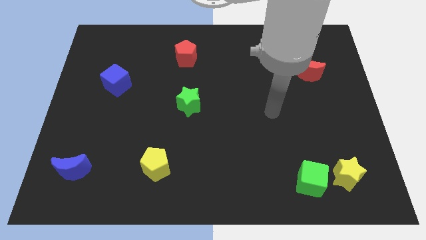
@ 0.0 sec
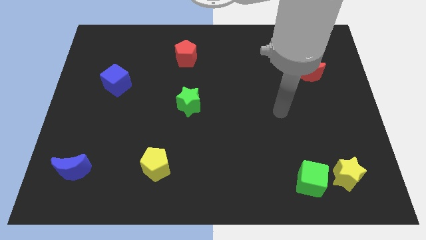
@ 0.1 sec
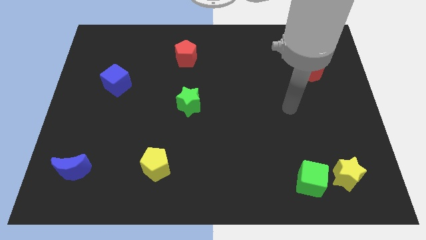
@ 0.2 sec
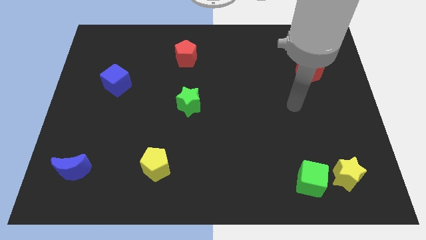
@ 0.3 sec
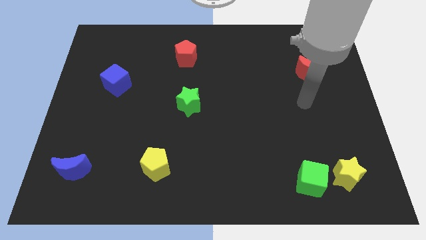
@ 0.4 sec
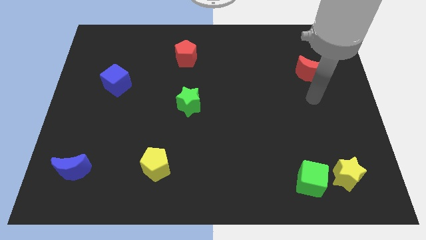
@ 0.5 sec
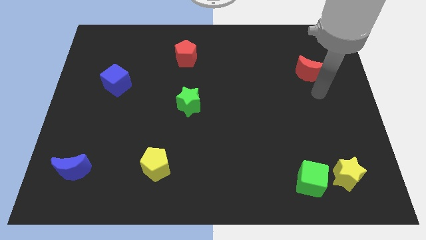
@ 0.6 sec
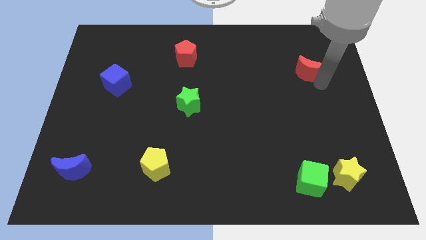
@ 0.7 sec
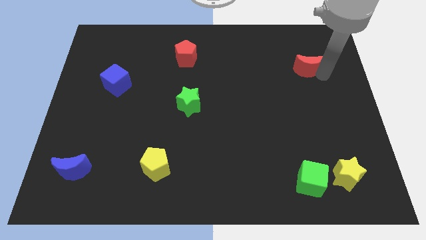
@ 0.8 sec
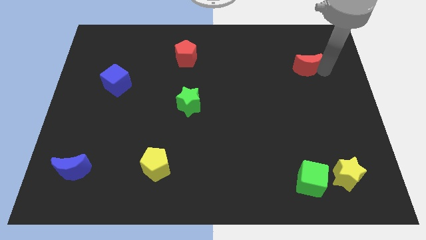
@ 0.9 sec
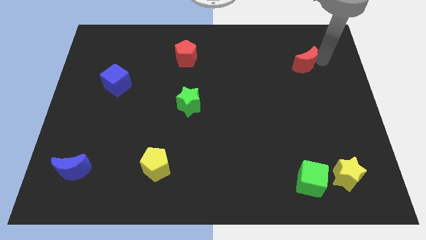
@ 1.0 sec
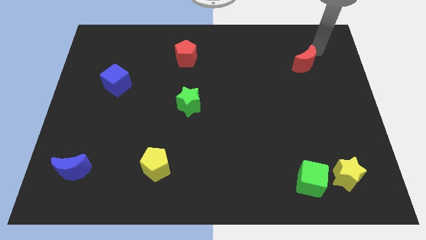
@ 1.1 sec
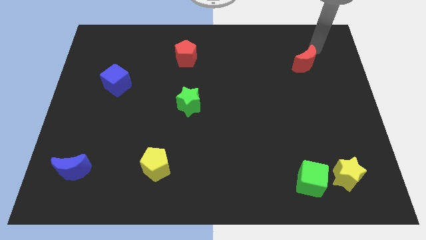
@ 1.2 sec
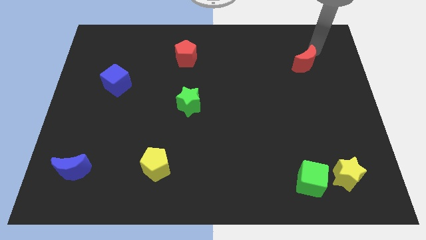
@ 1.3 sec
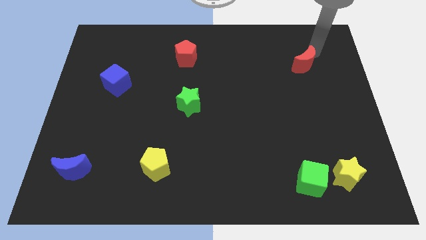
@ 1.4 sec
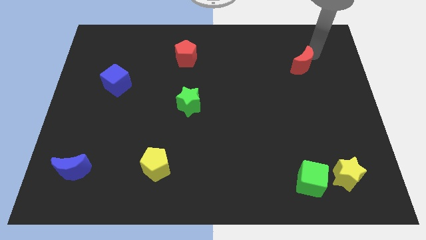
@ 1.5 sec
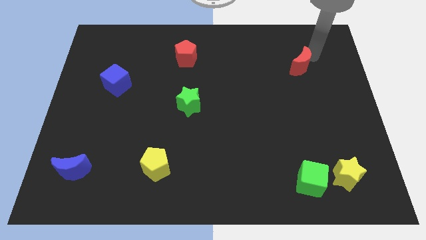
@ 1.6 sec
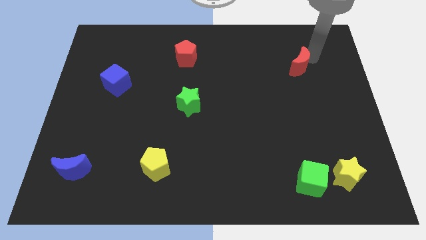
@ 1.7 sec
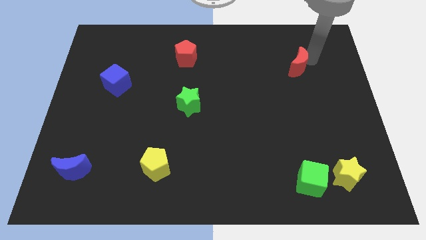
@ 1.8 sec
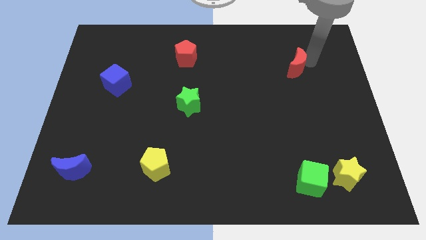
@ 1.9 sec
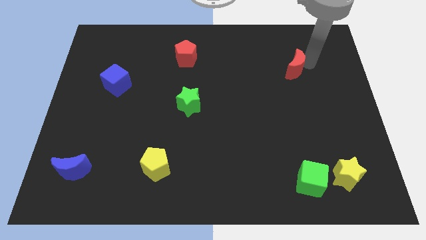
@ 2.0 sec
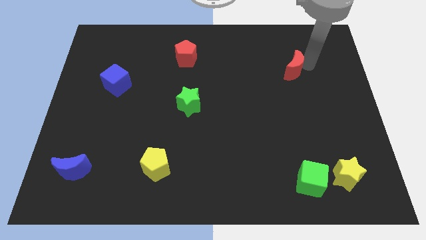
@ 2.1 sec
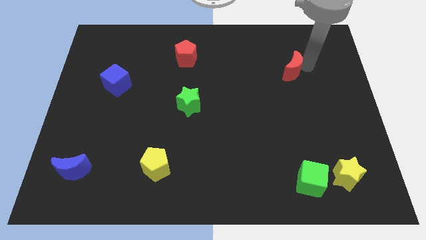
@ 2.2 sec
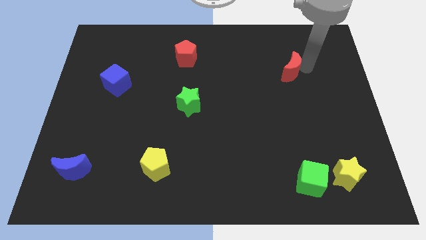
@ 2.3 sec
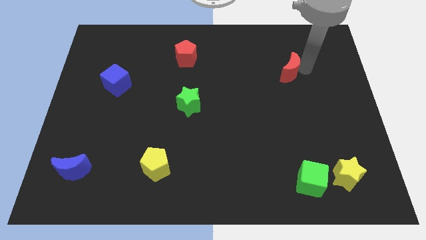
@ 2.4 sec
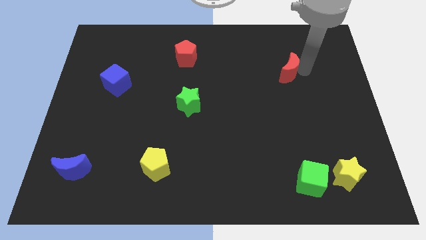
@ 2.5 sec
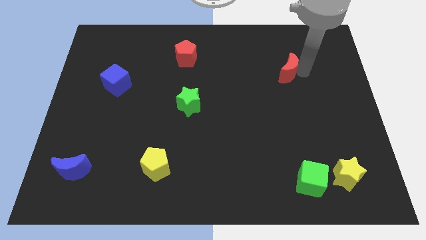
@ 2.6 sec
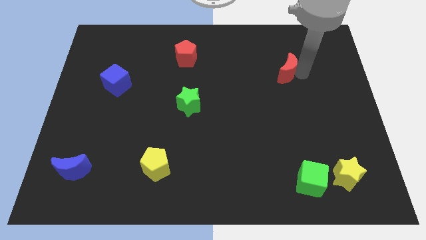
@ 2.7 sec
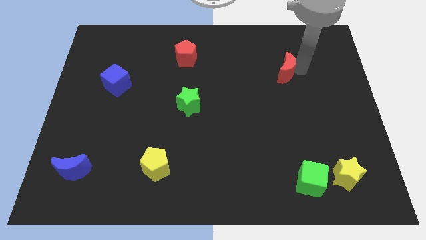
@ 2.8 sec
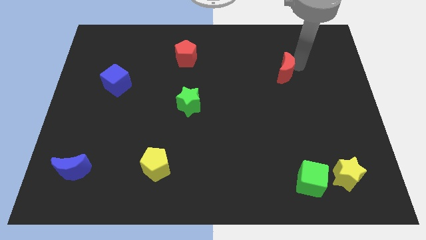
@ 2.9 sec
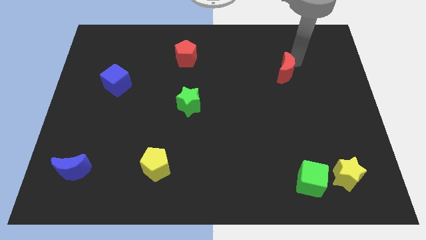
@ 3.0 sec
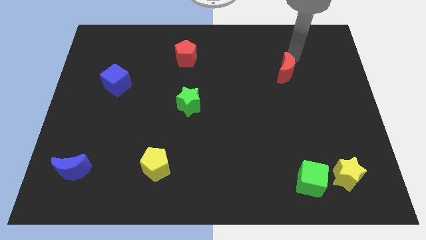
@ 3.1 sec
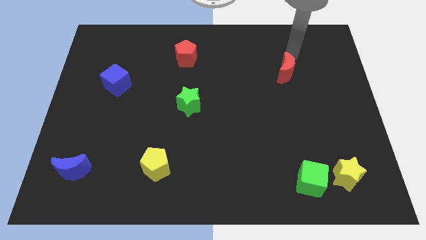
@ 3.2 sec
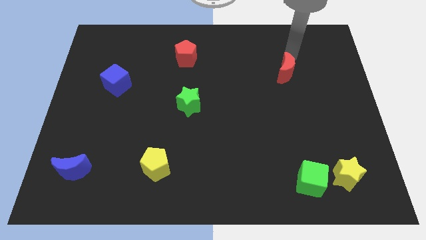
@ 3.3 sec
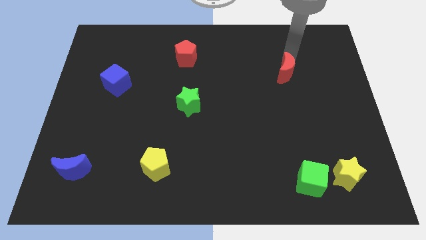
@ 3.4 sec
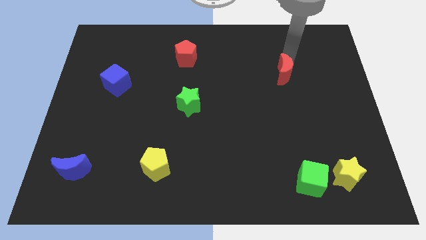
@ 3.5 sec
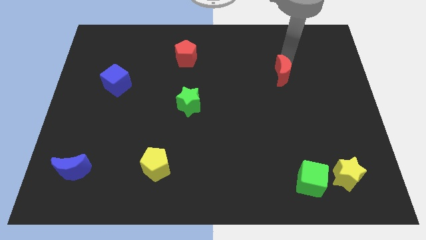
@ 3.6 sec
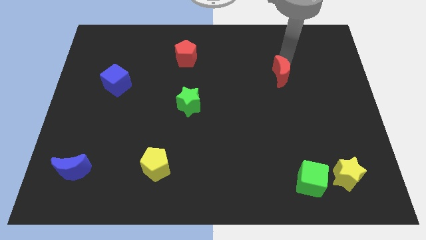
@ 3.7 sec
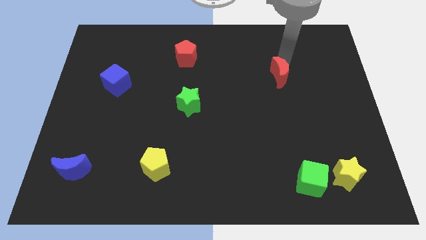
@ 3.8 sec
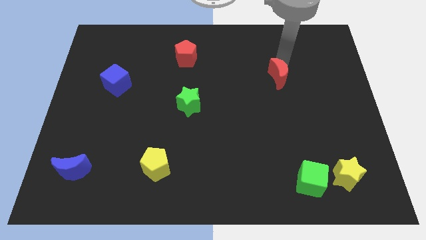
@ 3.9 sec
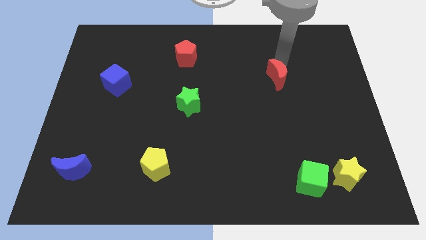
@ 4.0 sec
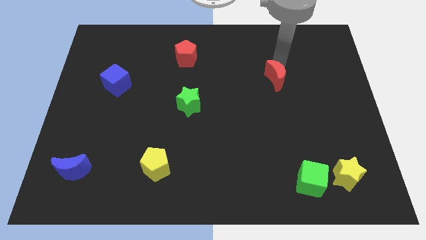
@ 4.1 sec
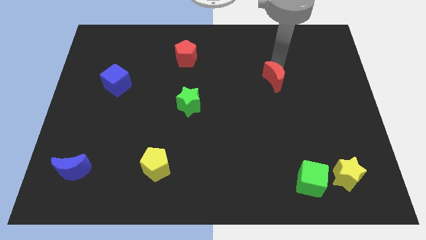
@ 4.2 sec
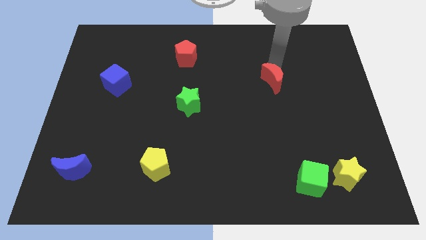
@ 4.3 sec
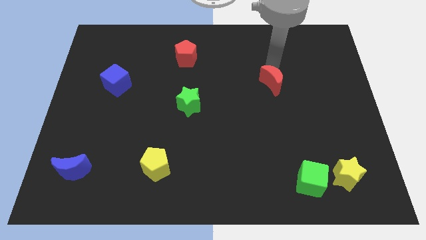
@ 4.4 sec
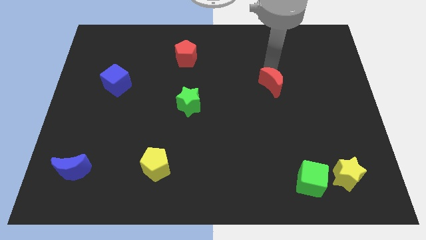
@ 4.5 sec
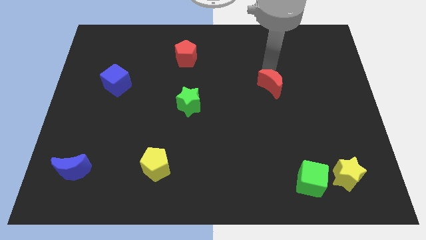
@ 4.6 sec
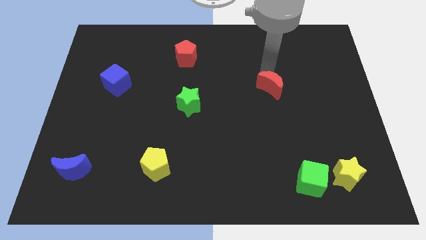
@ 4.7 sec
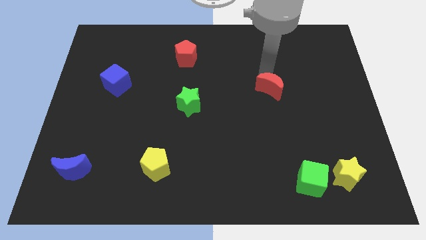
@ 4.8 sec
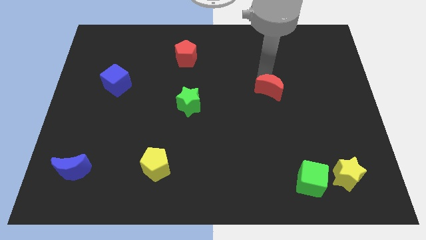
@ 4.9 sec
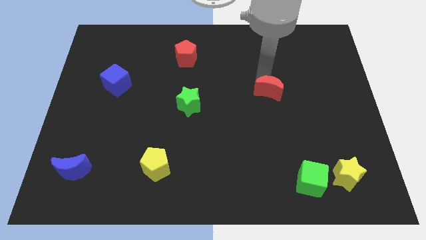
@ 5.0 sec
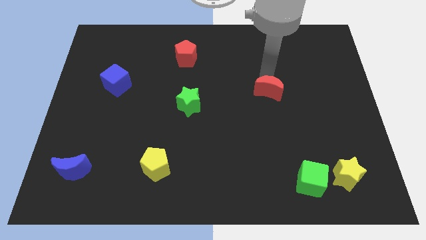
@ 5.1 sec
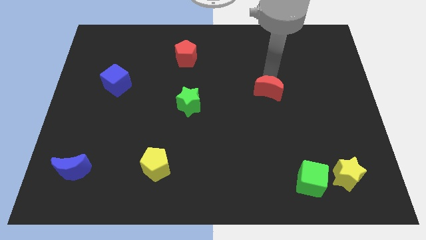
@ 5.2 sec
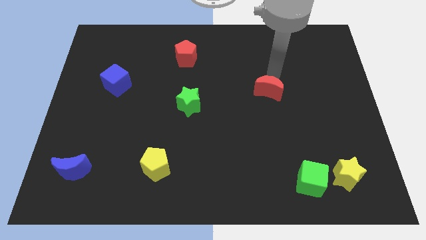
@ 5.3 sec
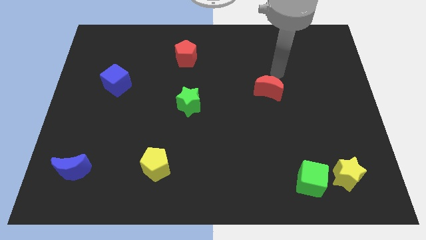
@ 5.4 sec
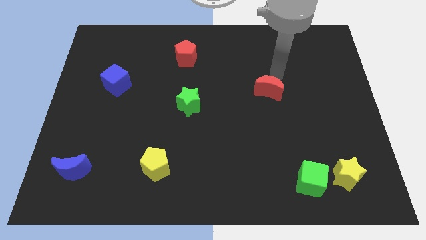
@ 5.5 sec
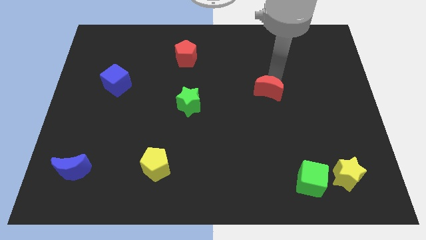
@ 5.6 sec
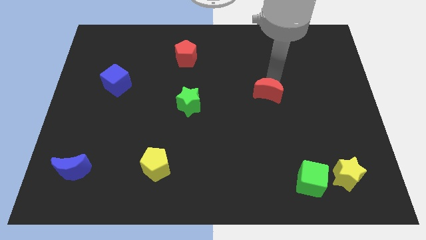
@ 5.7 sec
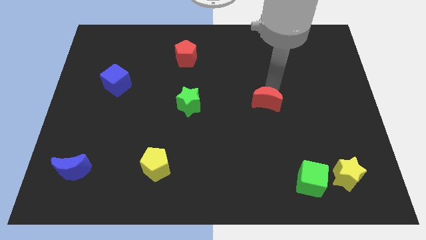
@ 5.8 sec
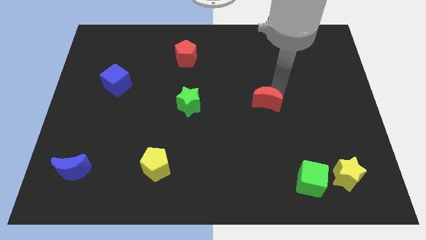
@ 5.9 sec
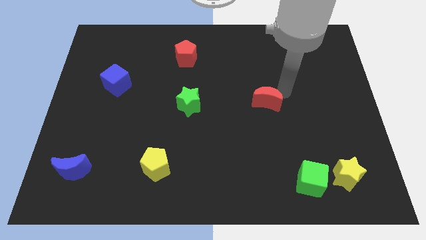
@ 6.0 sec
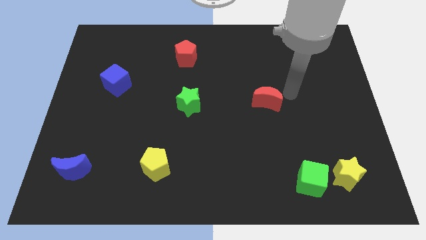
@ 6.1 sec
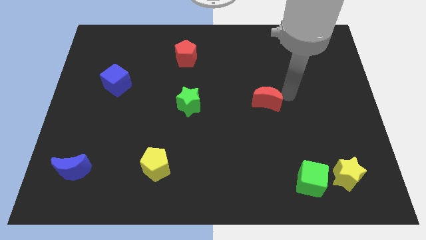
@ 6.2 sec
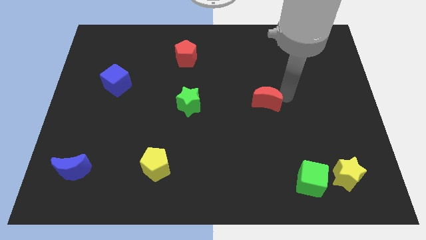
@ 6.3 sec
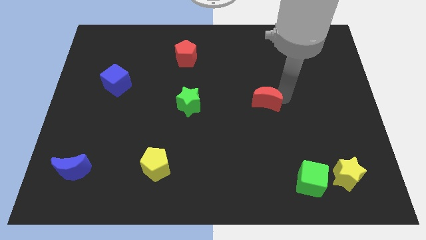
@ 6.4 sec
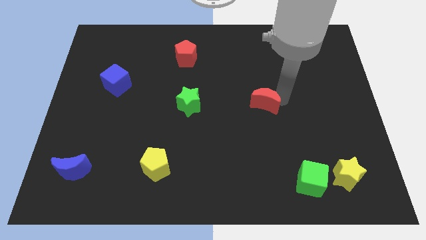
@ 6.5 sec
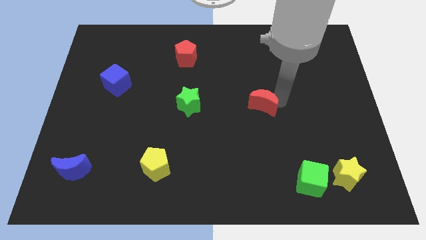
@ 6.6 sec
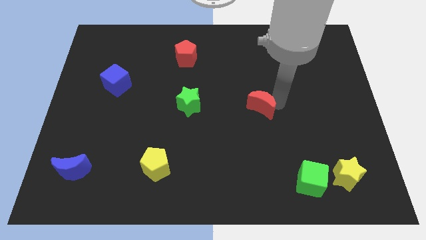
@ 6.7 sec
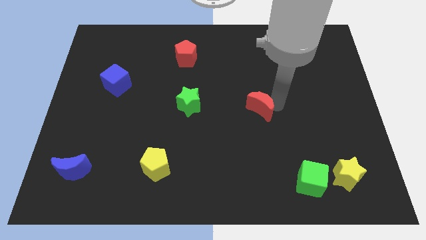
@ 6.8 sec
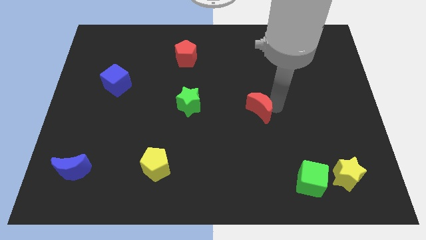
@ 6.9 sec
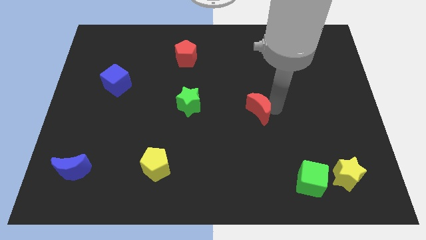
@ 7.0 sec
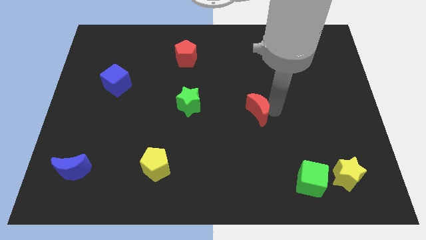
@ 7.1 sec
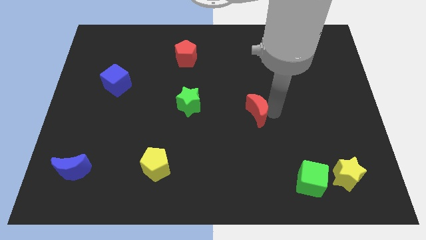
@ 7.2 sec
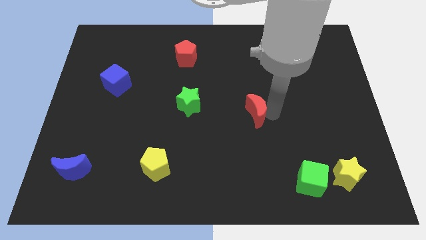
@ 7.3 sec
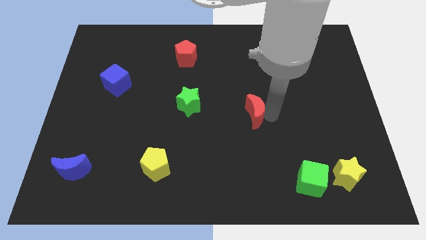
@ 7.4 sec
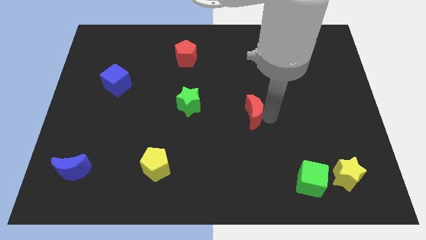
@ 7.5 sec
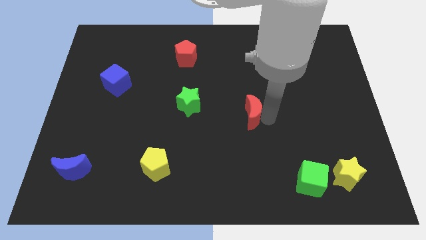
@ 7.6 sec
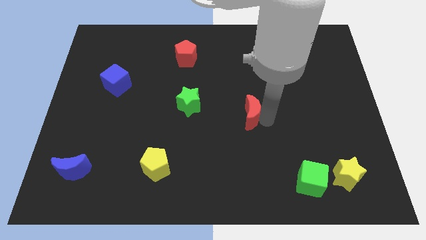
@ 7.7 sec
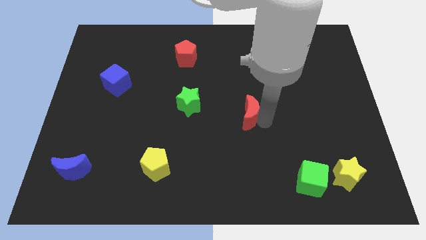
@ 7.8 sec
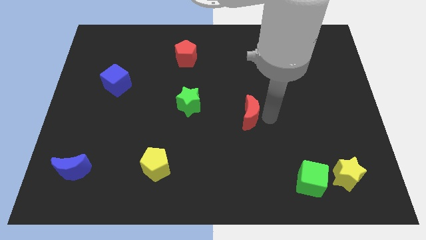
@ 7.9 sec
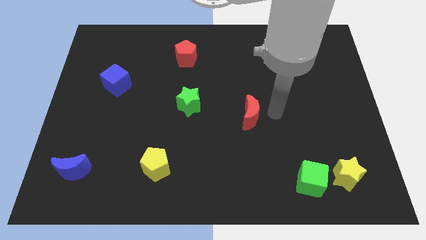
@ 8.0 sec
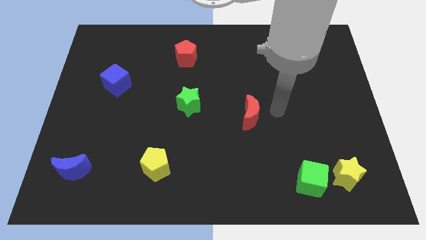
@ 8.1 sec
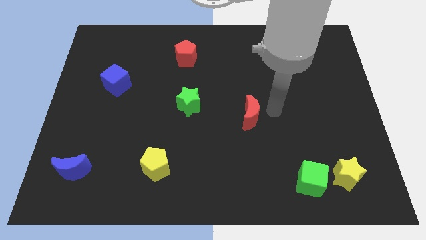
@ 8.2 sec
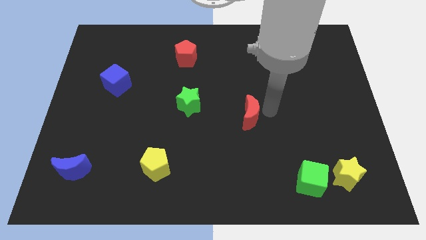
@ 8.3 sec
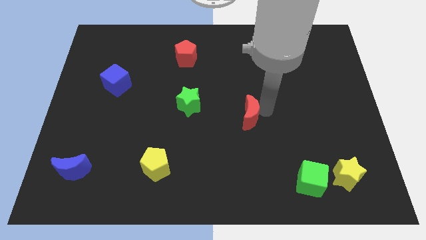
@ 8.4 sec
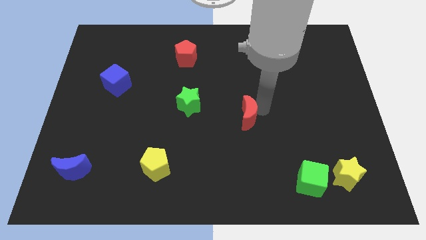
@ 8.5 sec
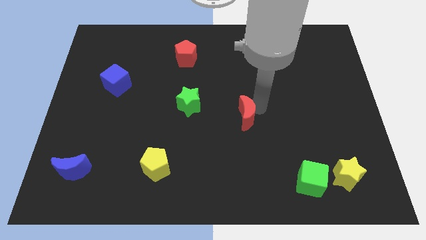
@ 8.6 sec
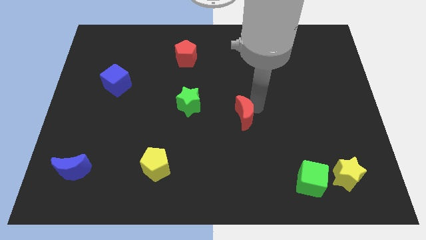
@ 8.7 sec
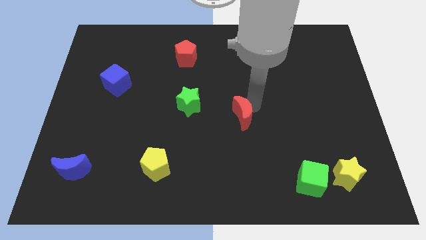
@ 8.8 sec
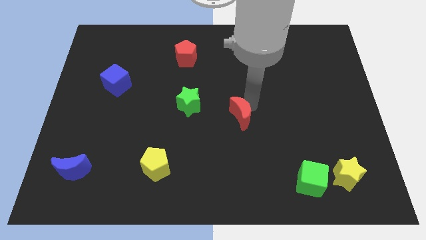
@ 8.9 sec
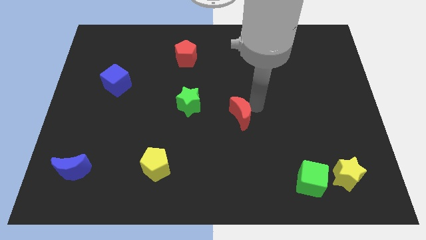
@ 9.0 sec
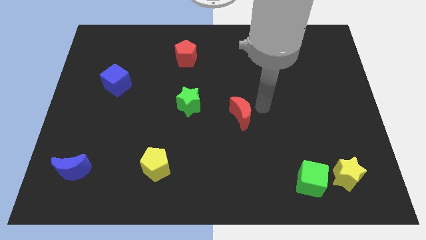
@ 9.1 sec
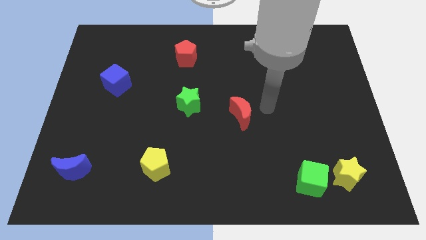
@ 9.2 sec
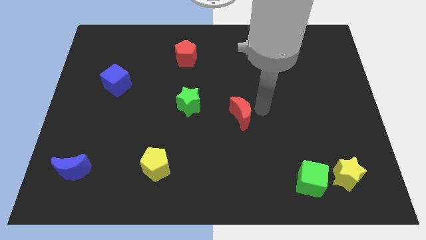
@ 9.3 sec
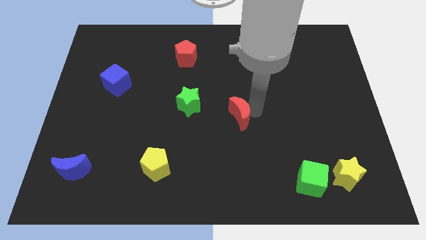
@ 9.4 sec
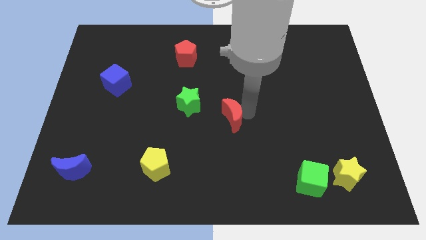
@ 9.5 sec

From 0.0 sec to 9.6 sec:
push the red moon to the bottom right of the green star
